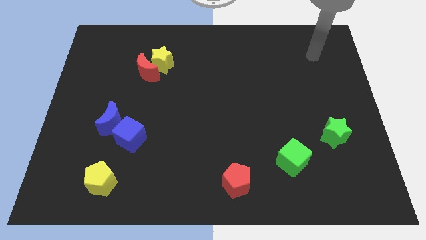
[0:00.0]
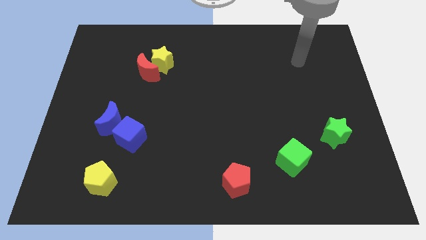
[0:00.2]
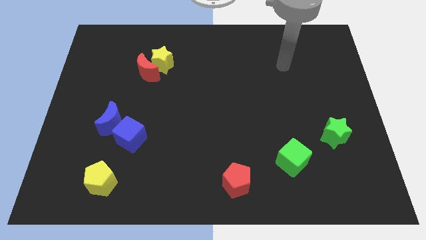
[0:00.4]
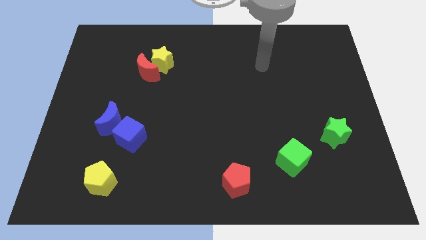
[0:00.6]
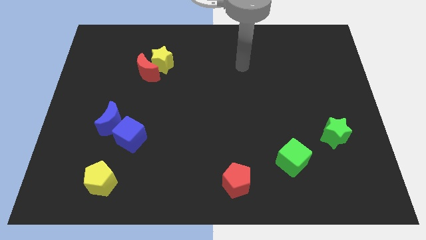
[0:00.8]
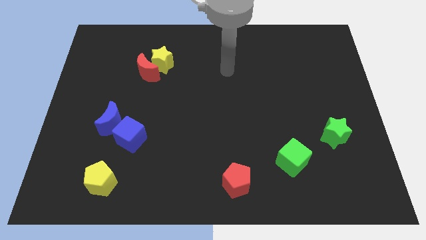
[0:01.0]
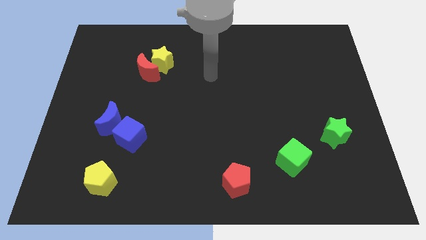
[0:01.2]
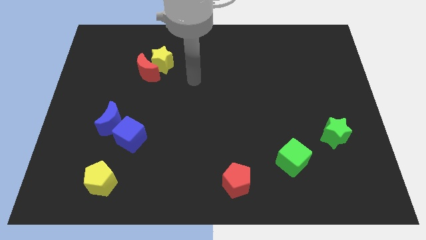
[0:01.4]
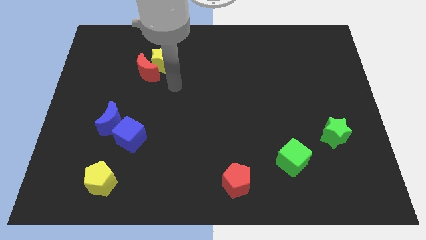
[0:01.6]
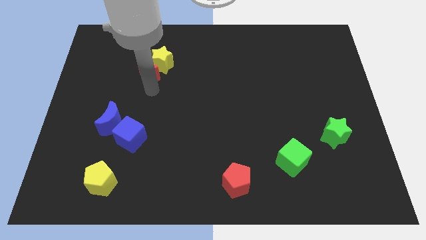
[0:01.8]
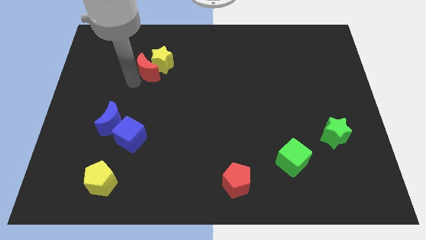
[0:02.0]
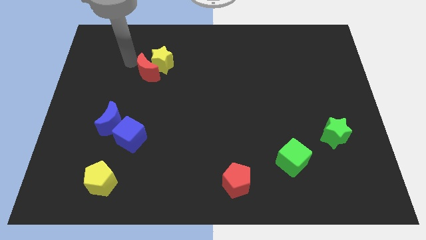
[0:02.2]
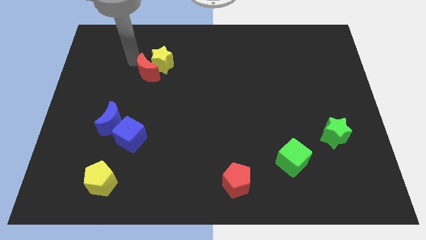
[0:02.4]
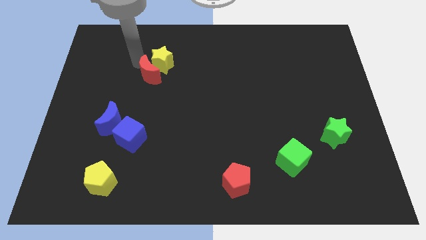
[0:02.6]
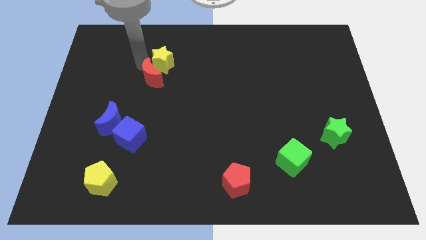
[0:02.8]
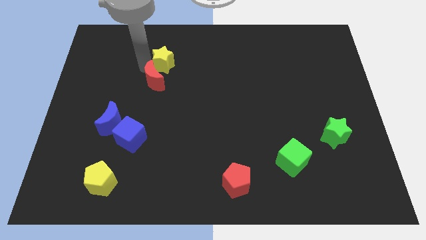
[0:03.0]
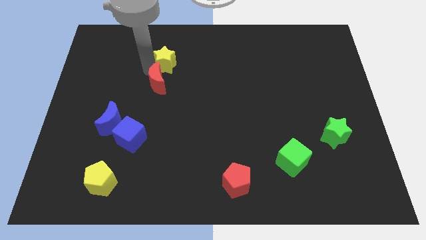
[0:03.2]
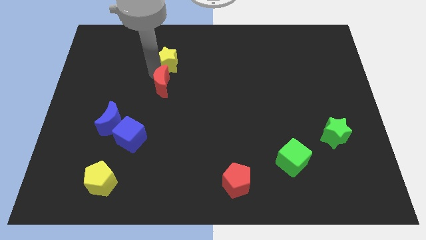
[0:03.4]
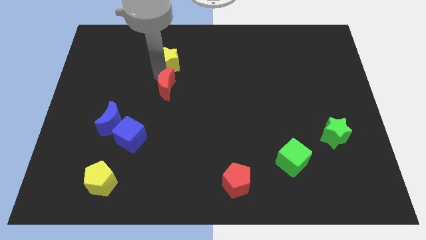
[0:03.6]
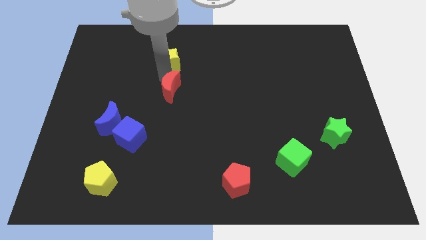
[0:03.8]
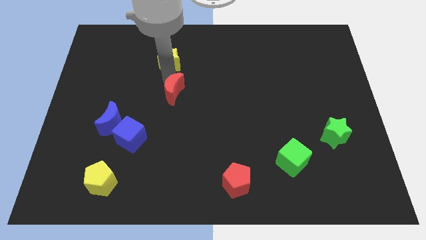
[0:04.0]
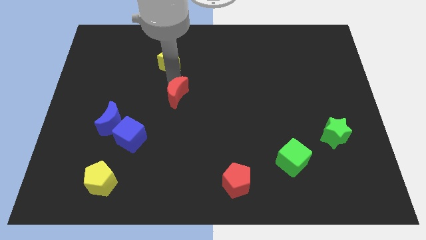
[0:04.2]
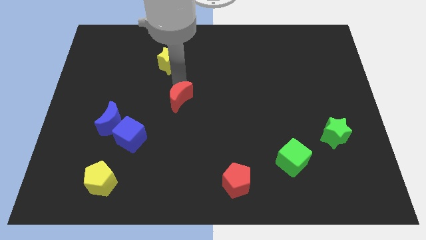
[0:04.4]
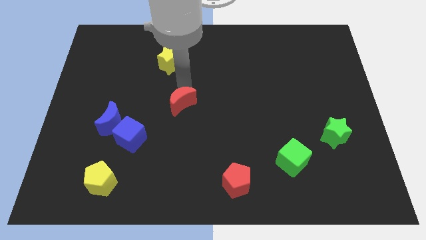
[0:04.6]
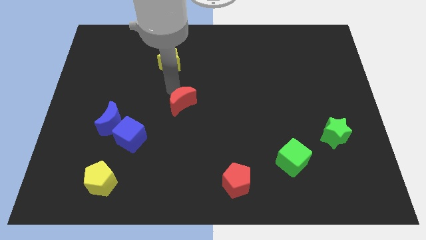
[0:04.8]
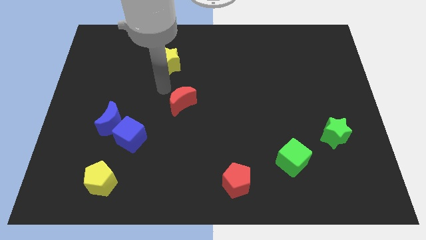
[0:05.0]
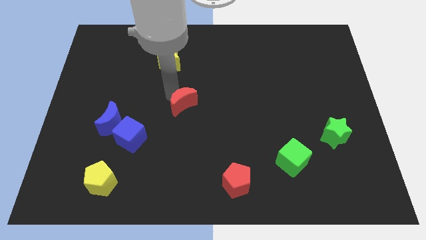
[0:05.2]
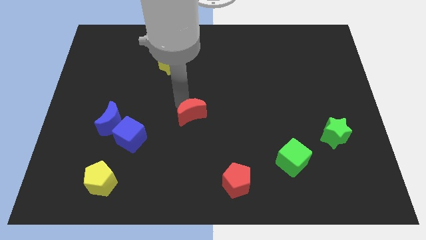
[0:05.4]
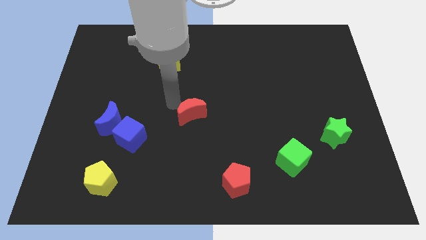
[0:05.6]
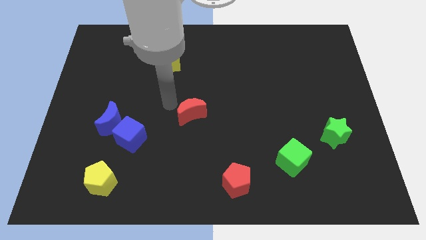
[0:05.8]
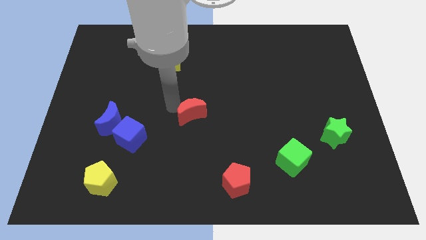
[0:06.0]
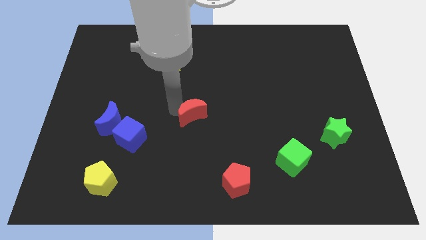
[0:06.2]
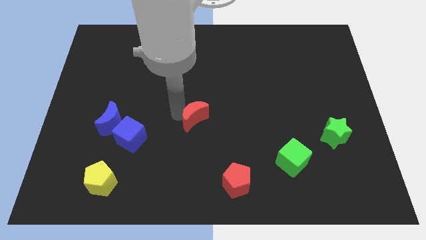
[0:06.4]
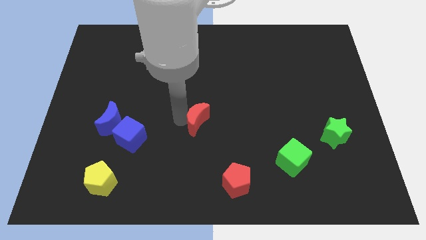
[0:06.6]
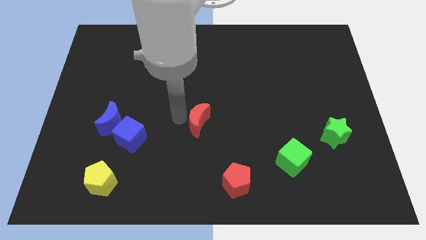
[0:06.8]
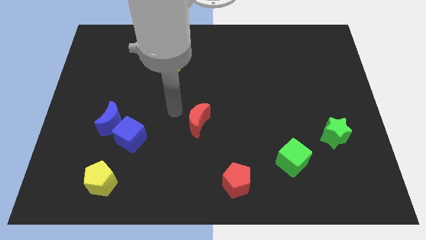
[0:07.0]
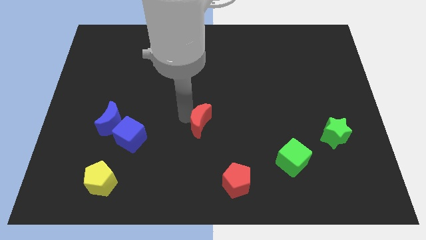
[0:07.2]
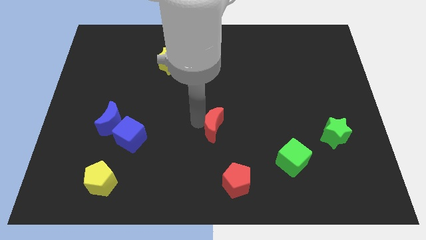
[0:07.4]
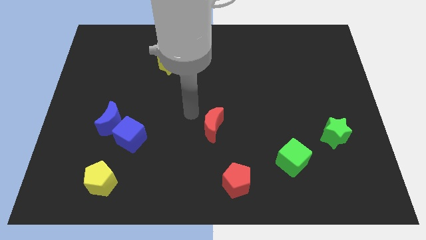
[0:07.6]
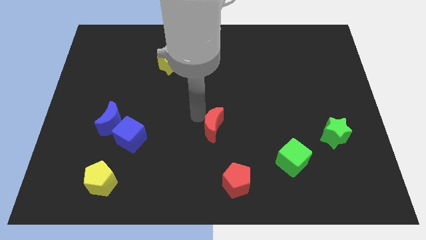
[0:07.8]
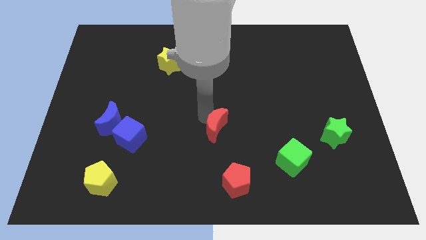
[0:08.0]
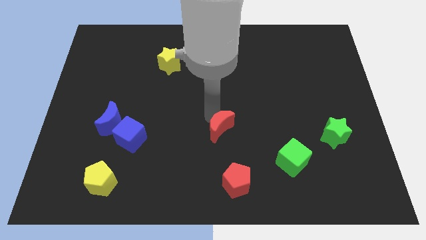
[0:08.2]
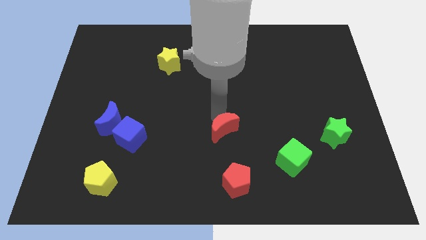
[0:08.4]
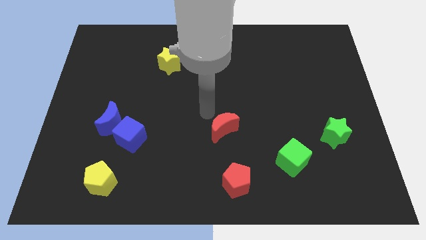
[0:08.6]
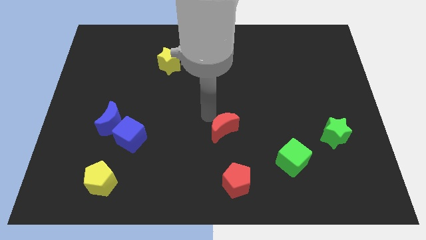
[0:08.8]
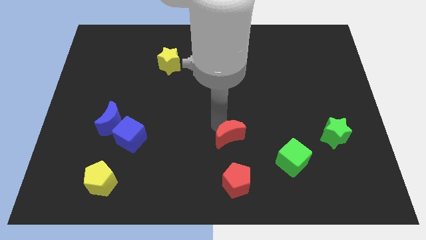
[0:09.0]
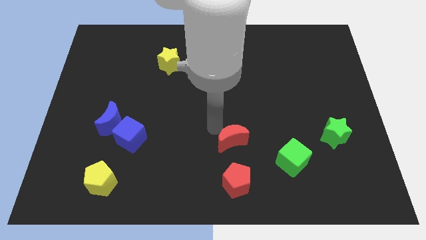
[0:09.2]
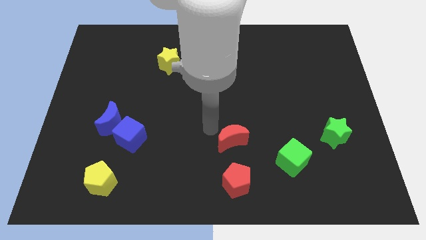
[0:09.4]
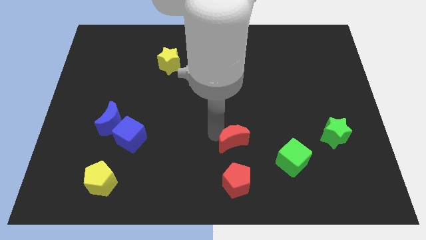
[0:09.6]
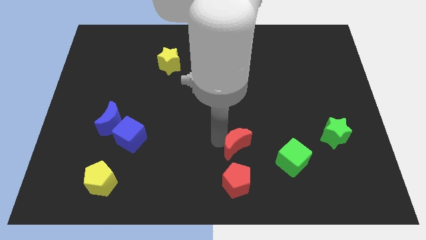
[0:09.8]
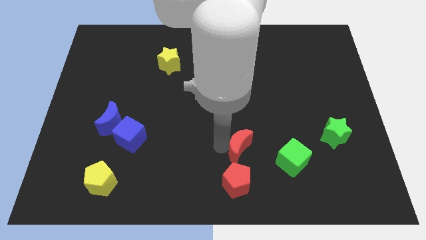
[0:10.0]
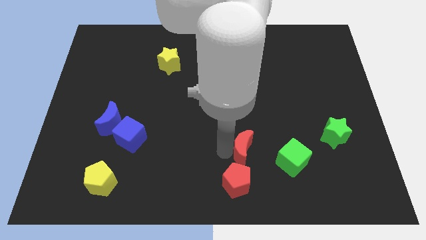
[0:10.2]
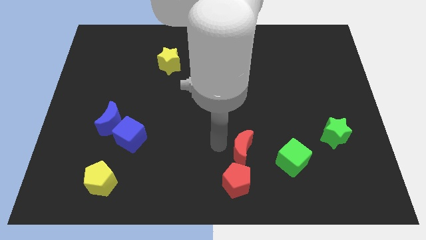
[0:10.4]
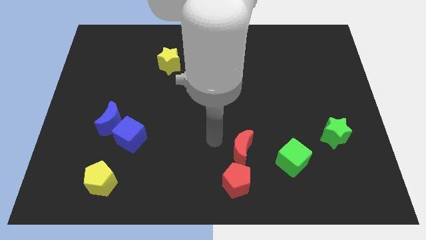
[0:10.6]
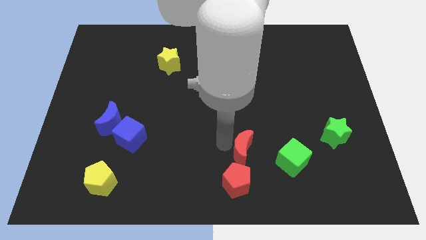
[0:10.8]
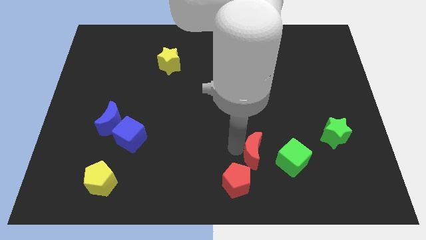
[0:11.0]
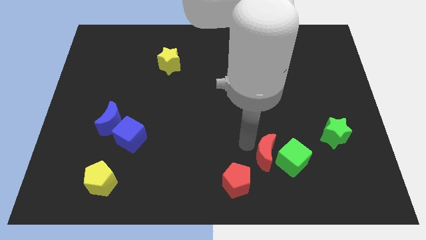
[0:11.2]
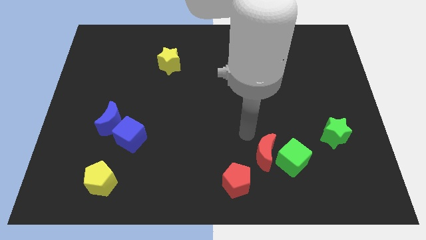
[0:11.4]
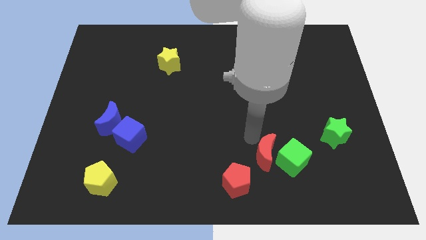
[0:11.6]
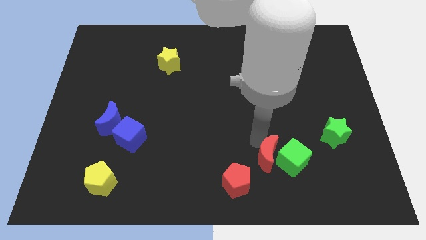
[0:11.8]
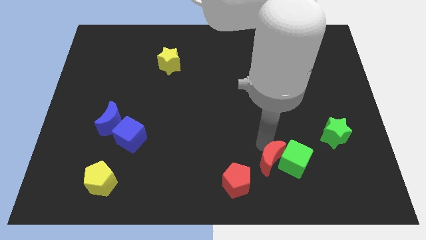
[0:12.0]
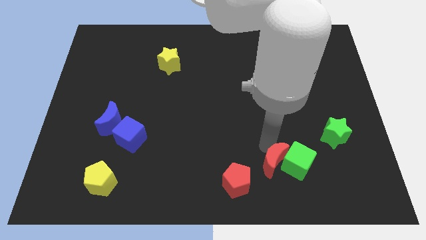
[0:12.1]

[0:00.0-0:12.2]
put the red moon just right of the red pentagon

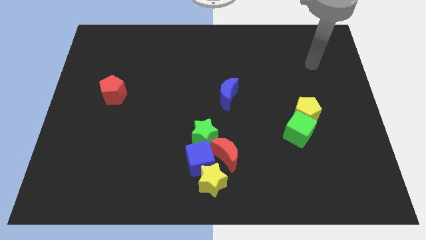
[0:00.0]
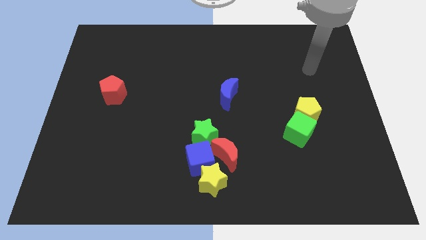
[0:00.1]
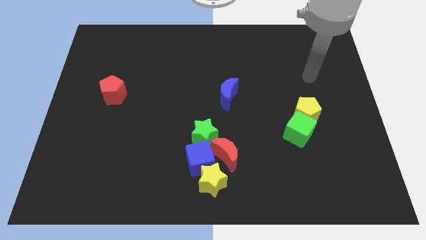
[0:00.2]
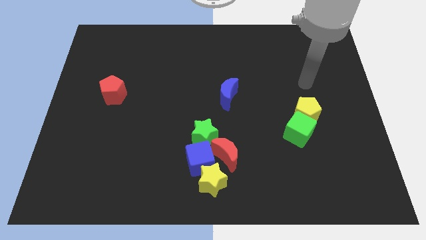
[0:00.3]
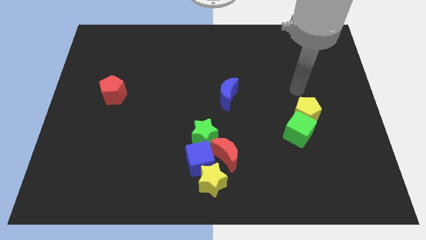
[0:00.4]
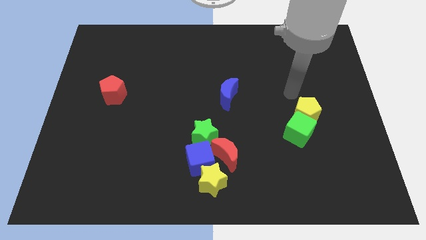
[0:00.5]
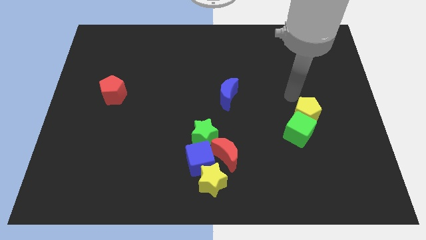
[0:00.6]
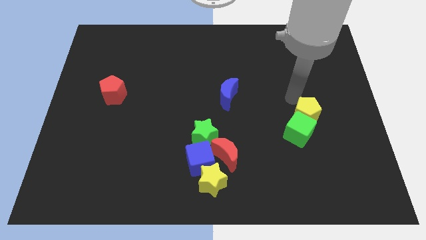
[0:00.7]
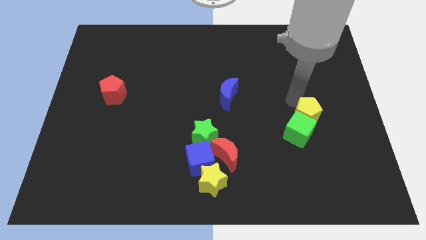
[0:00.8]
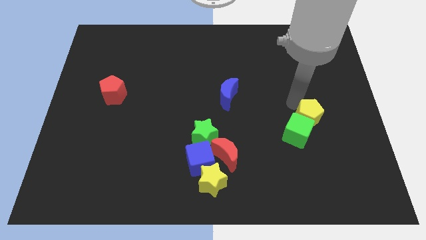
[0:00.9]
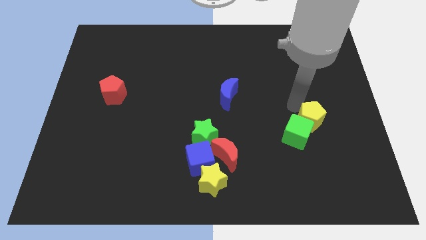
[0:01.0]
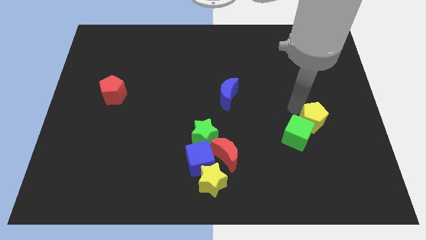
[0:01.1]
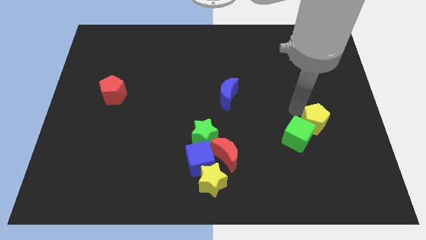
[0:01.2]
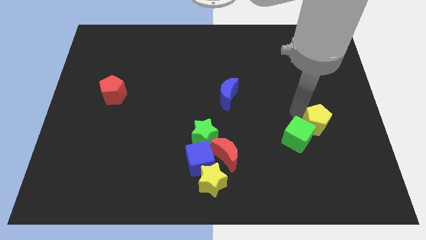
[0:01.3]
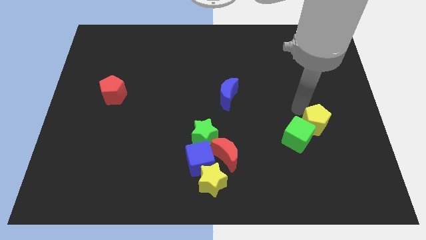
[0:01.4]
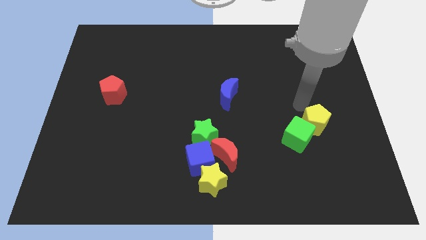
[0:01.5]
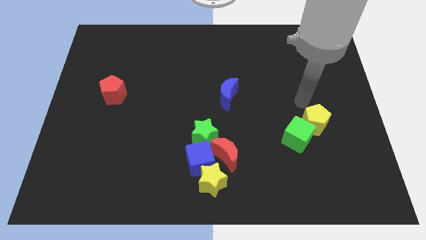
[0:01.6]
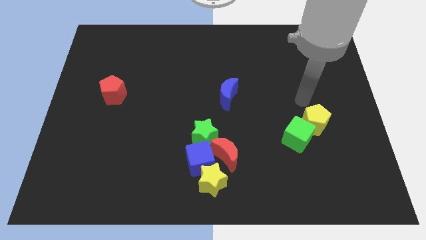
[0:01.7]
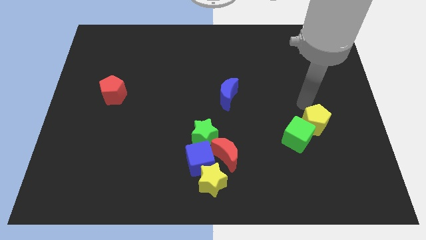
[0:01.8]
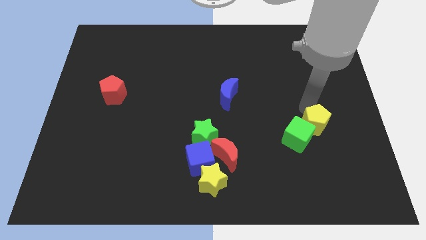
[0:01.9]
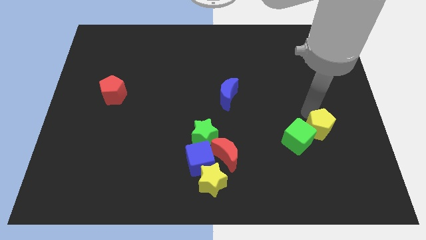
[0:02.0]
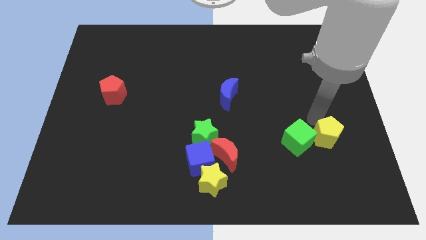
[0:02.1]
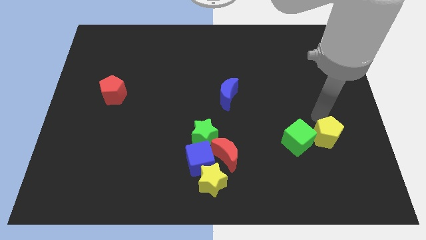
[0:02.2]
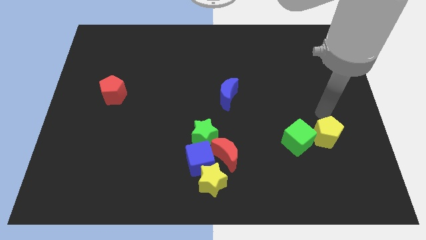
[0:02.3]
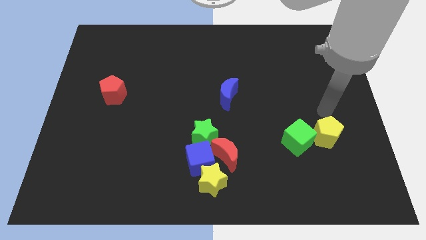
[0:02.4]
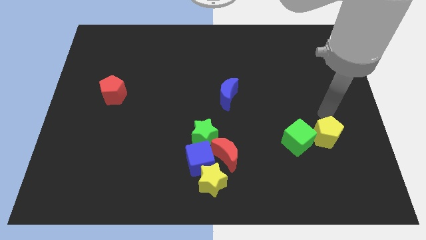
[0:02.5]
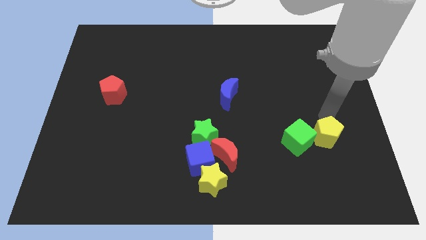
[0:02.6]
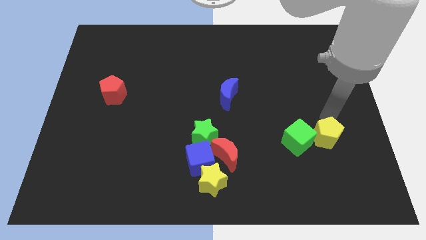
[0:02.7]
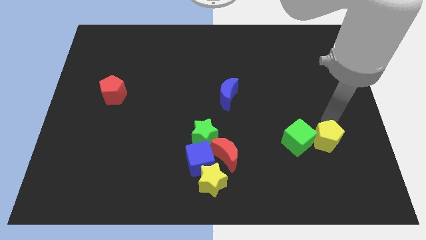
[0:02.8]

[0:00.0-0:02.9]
move the yellow pentagon diagonally down and to the right of the green cube
